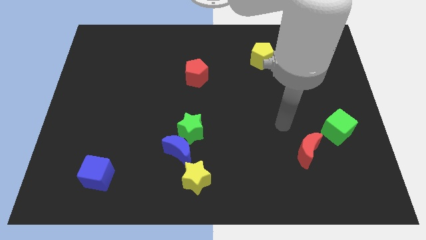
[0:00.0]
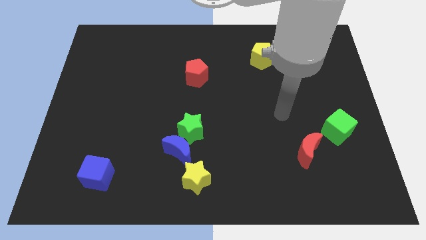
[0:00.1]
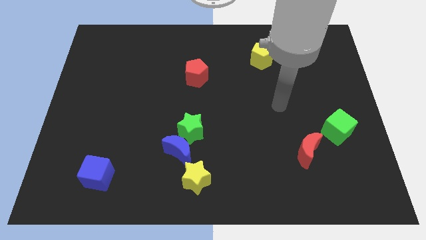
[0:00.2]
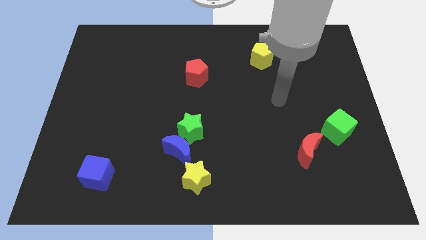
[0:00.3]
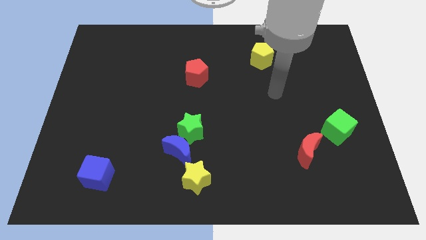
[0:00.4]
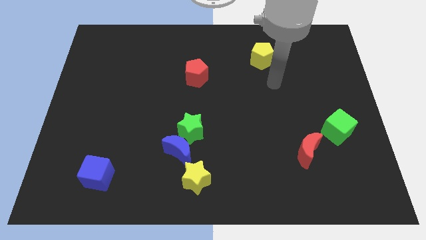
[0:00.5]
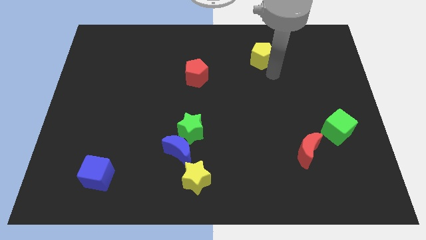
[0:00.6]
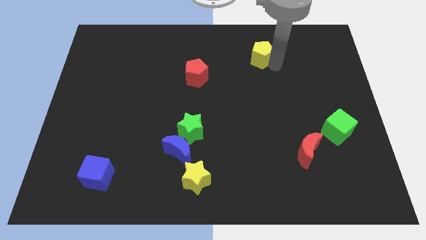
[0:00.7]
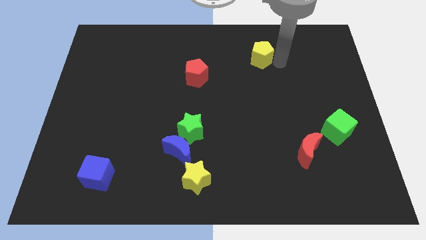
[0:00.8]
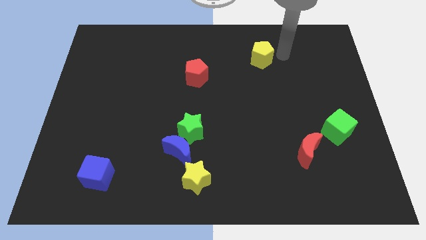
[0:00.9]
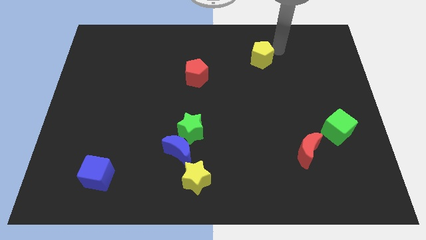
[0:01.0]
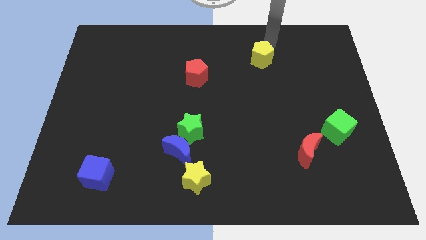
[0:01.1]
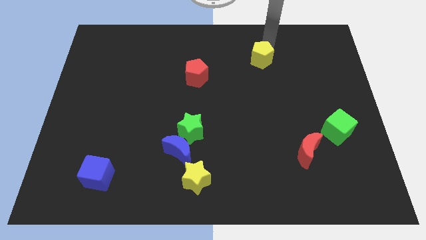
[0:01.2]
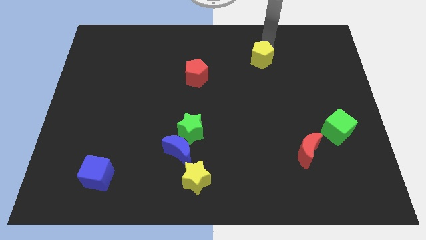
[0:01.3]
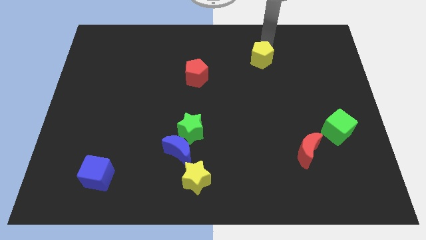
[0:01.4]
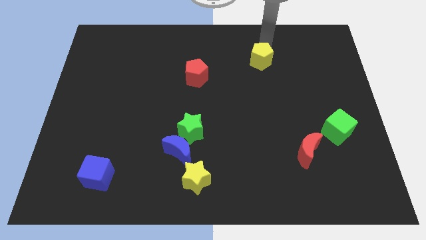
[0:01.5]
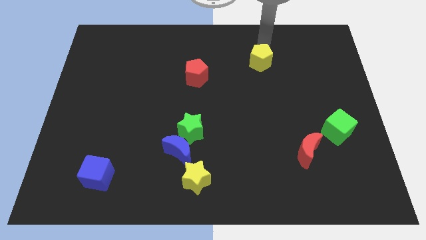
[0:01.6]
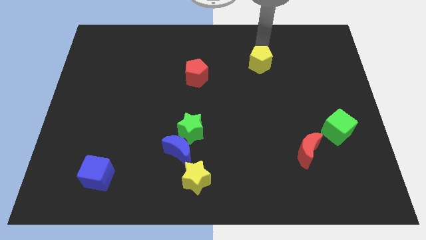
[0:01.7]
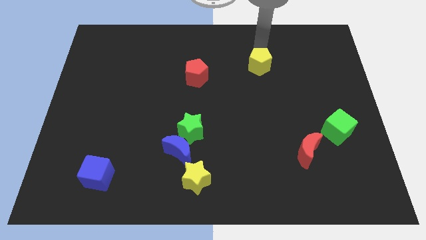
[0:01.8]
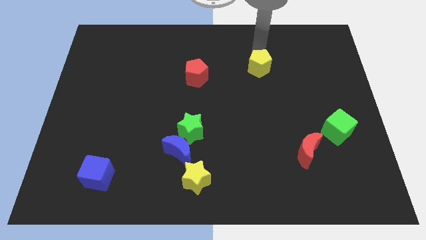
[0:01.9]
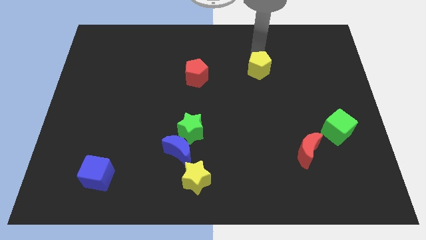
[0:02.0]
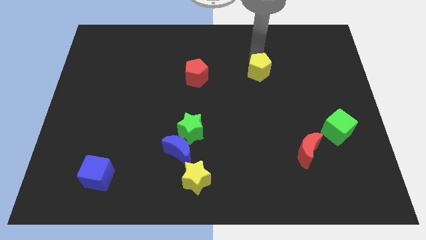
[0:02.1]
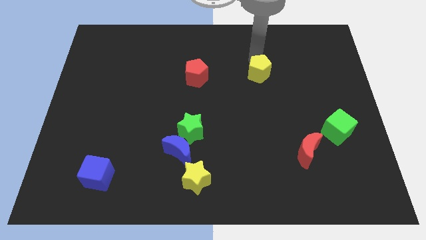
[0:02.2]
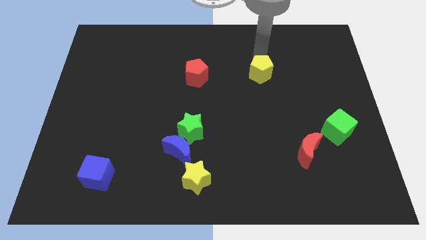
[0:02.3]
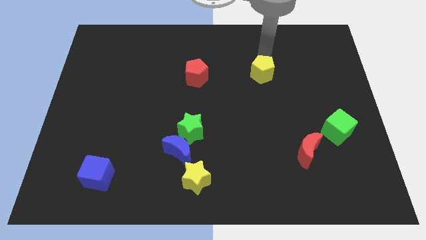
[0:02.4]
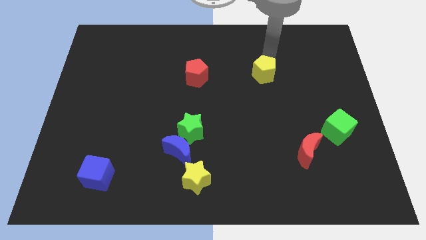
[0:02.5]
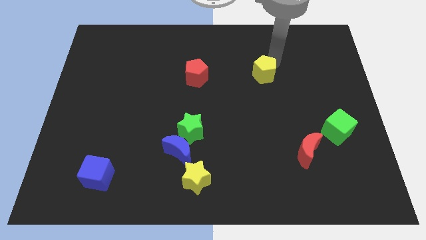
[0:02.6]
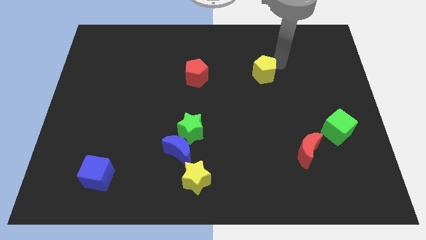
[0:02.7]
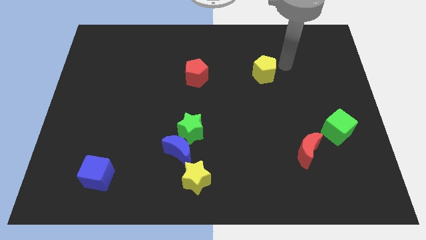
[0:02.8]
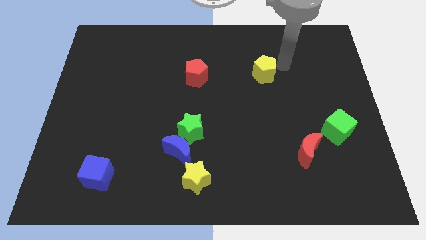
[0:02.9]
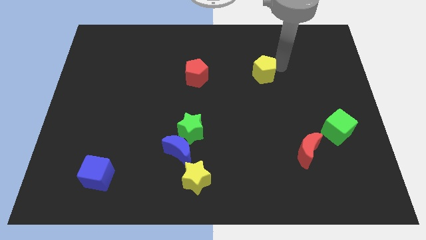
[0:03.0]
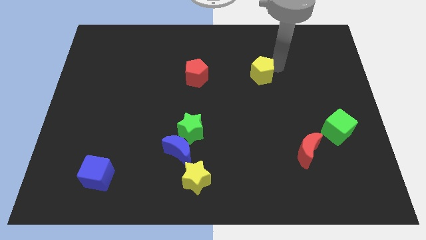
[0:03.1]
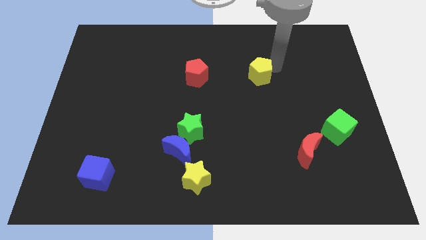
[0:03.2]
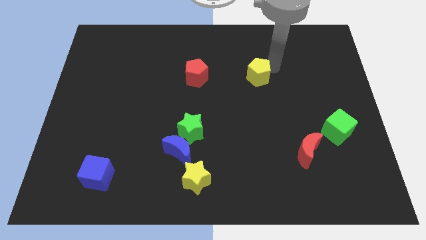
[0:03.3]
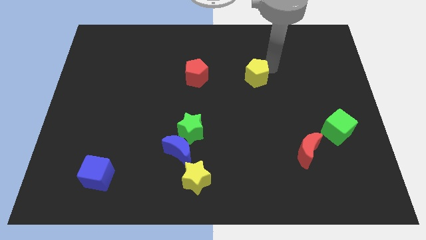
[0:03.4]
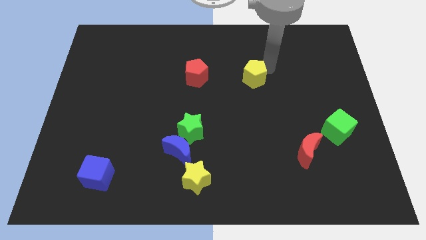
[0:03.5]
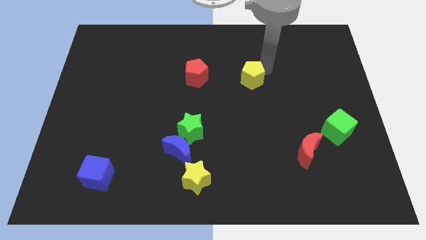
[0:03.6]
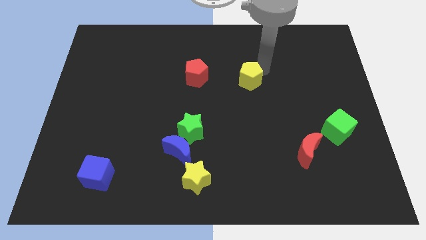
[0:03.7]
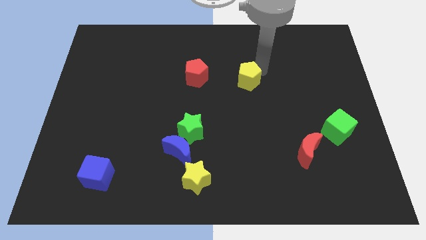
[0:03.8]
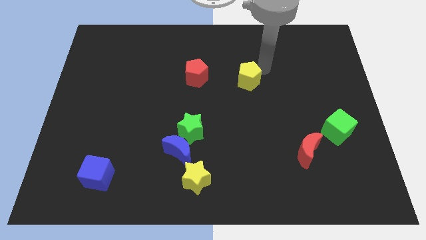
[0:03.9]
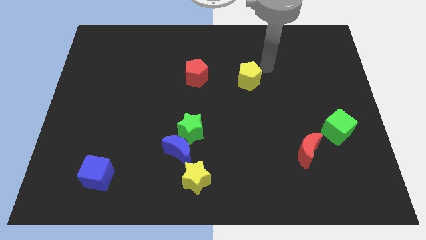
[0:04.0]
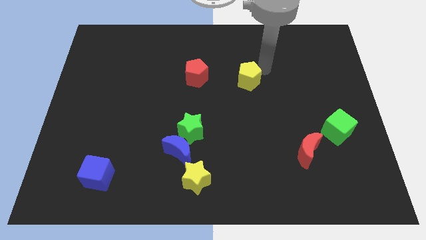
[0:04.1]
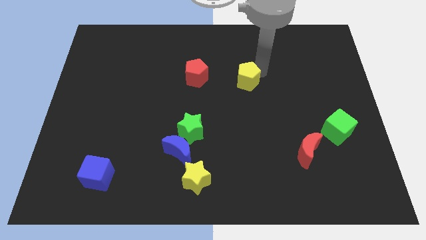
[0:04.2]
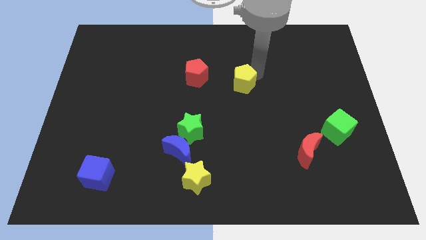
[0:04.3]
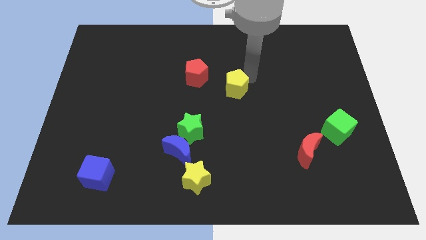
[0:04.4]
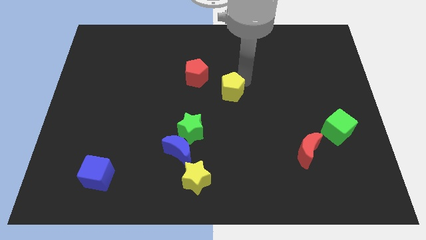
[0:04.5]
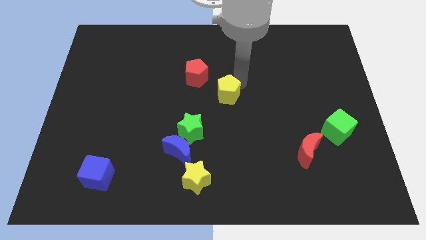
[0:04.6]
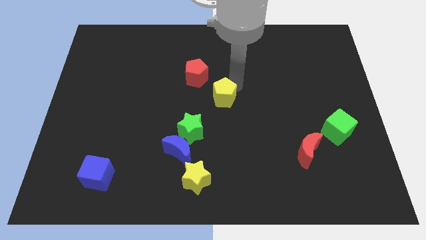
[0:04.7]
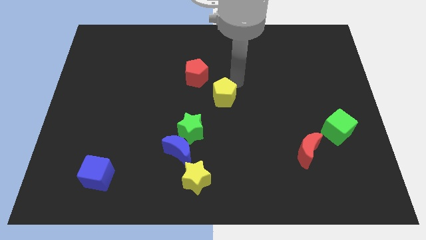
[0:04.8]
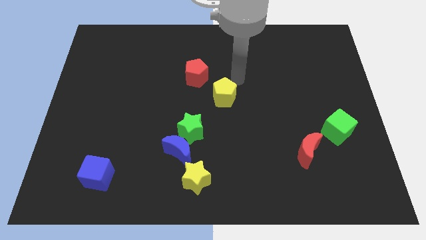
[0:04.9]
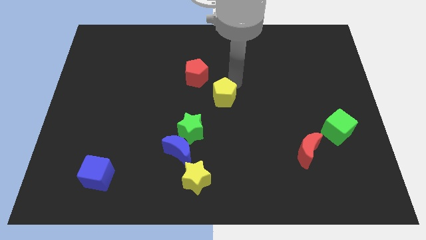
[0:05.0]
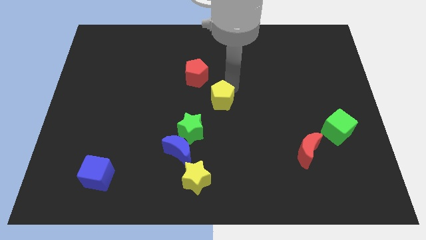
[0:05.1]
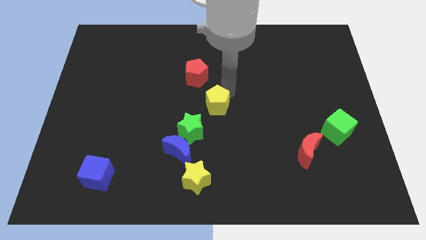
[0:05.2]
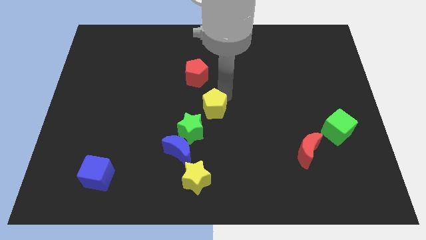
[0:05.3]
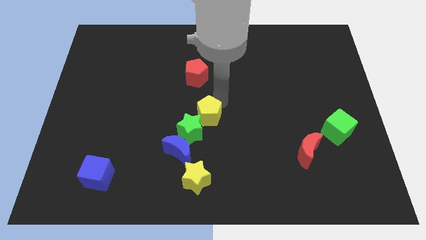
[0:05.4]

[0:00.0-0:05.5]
put the yellow pentagon close to the green star

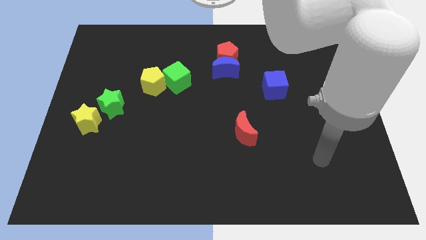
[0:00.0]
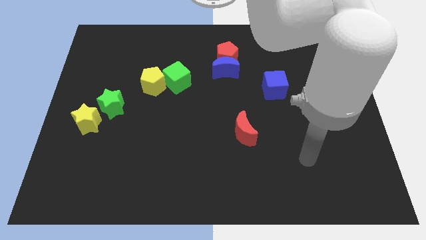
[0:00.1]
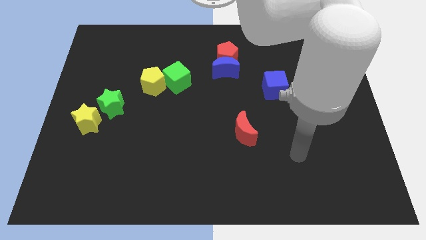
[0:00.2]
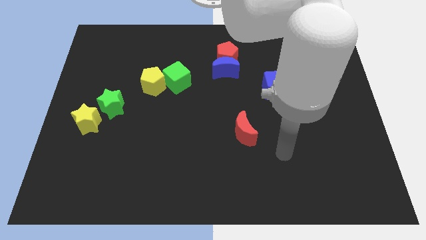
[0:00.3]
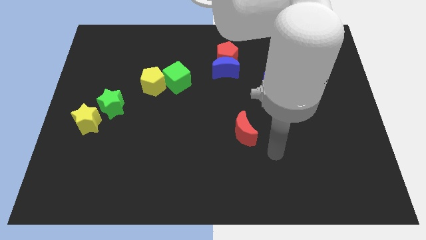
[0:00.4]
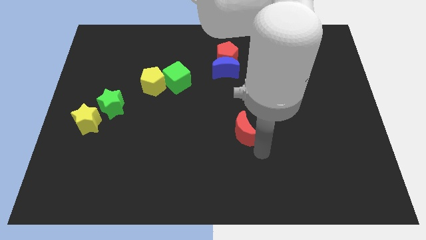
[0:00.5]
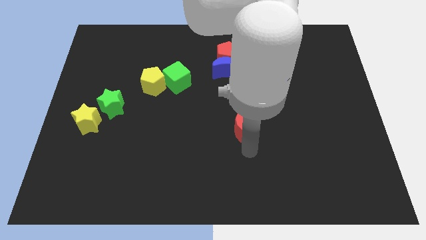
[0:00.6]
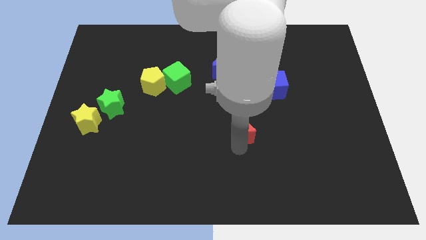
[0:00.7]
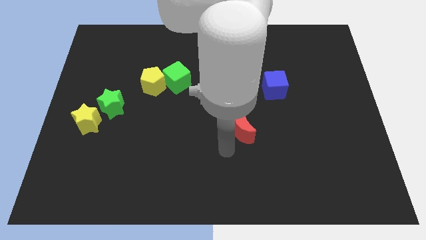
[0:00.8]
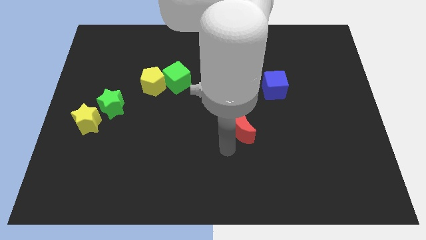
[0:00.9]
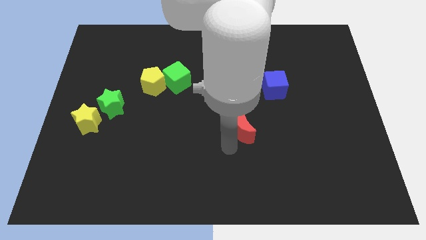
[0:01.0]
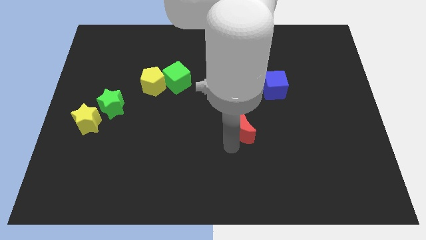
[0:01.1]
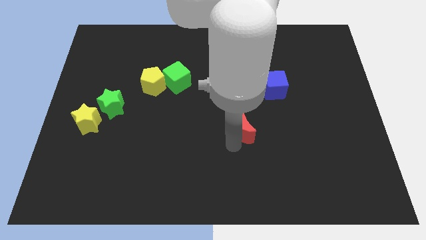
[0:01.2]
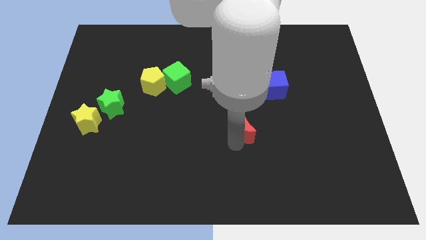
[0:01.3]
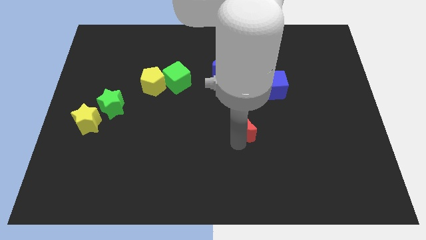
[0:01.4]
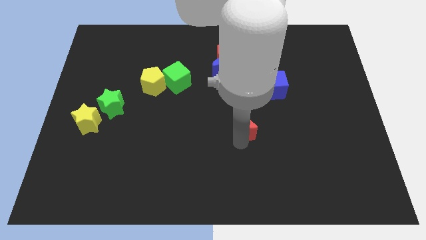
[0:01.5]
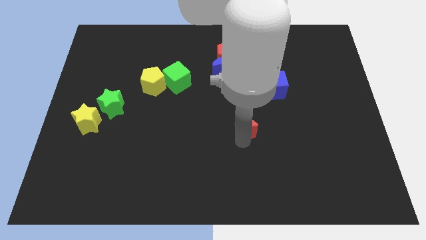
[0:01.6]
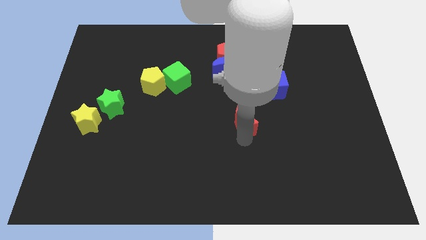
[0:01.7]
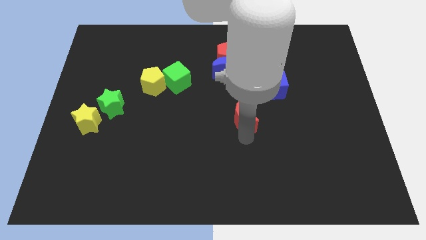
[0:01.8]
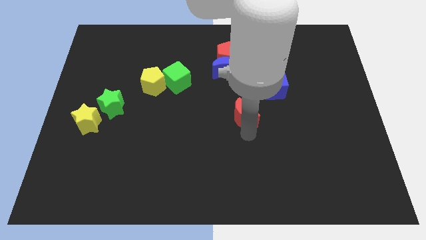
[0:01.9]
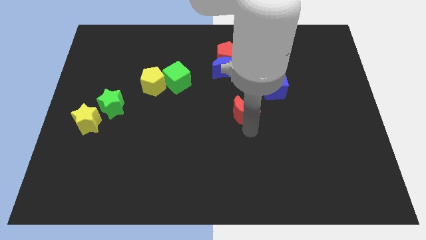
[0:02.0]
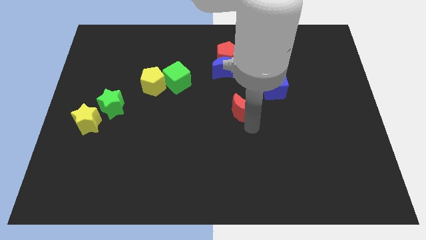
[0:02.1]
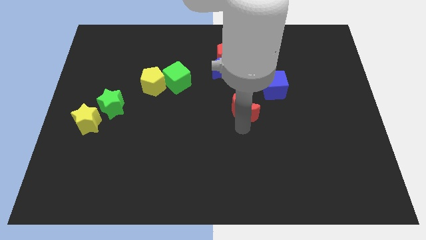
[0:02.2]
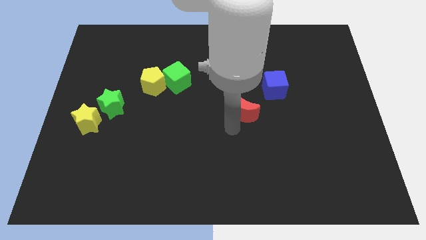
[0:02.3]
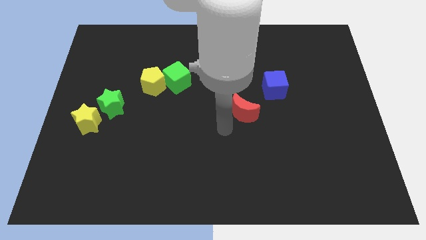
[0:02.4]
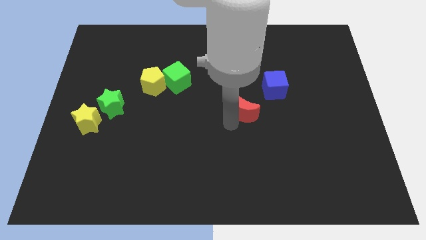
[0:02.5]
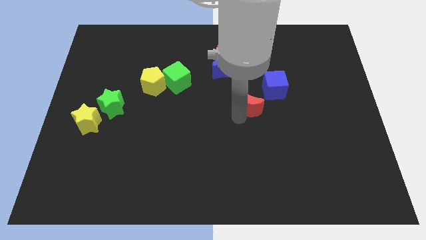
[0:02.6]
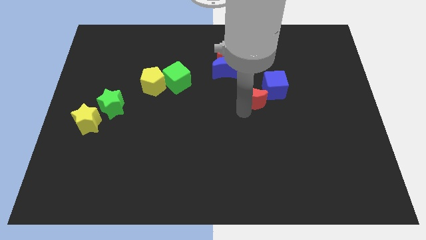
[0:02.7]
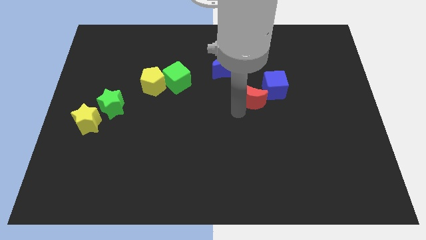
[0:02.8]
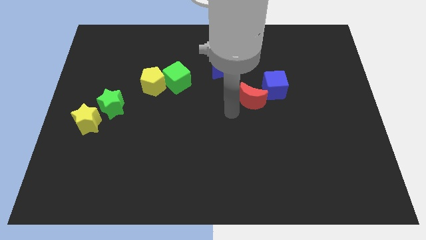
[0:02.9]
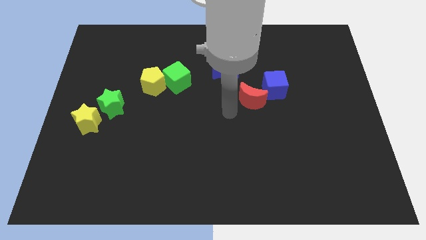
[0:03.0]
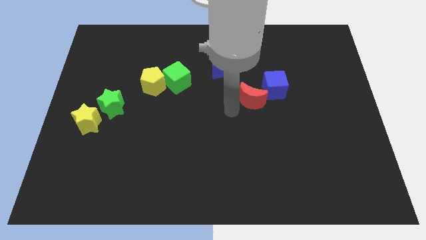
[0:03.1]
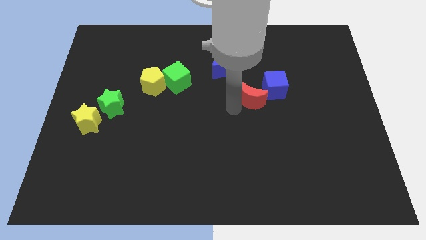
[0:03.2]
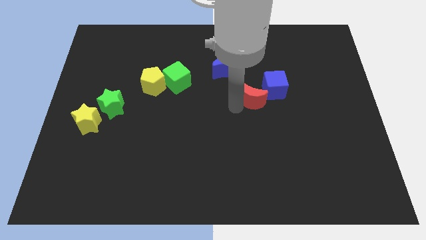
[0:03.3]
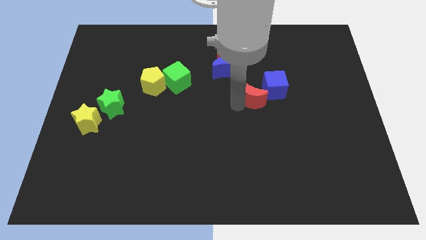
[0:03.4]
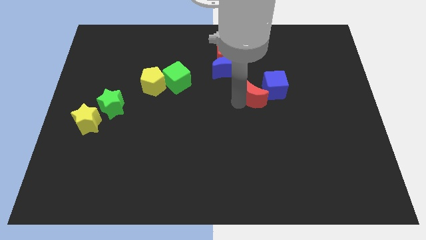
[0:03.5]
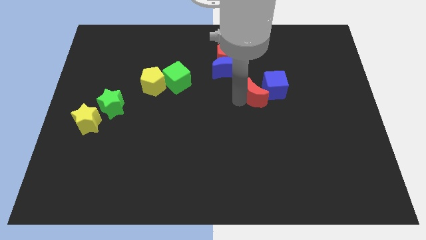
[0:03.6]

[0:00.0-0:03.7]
push the red moon to the blue cube
